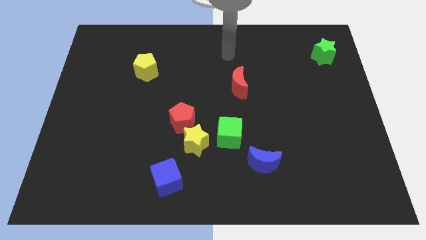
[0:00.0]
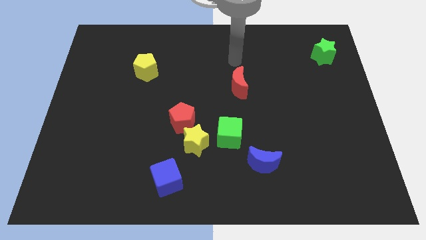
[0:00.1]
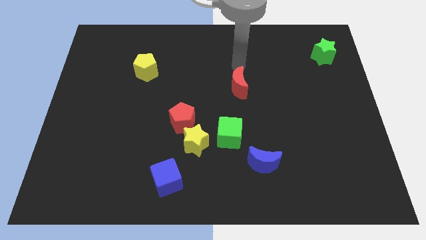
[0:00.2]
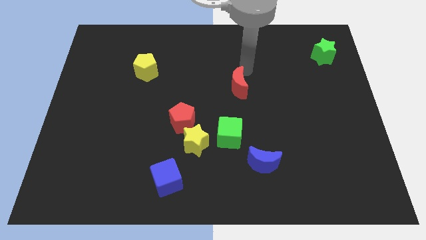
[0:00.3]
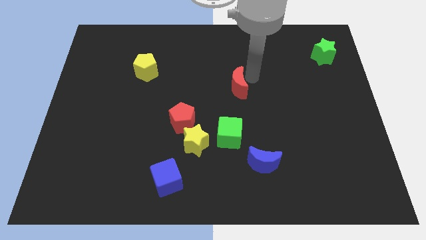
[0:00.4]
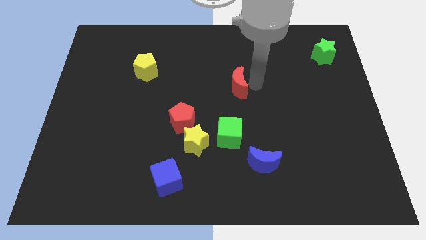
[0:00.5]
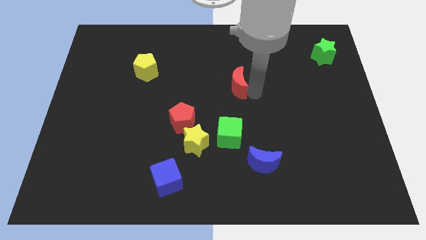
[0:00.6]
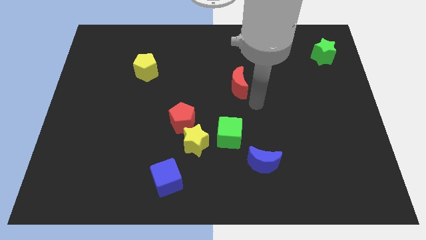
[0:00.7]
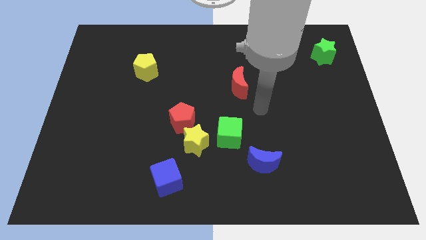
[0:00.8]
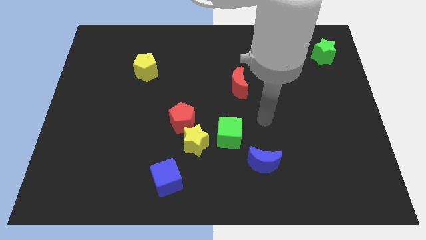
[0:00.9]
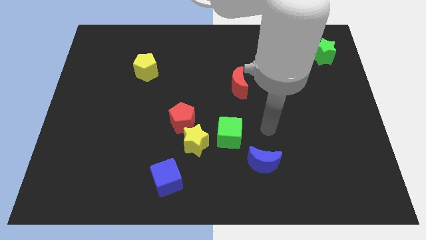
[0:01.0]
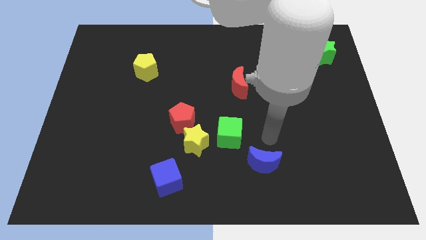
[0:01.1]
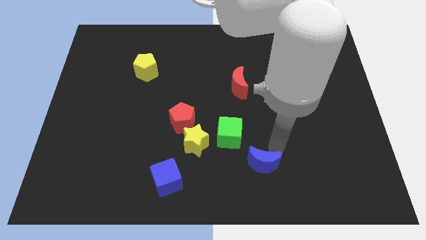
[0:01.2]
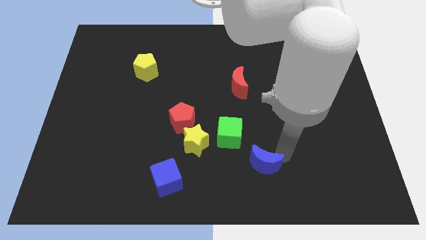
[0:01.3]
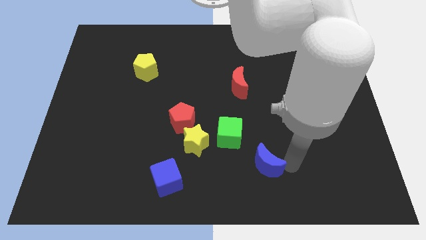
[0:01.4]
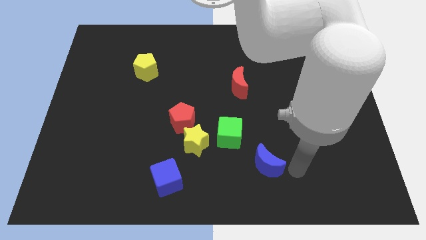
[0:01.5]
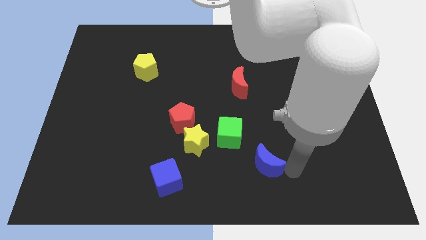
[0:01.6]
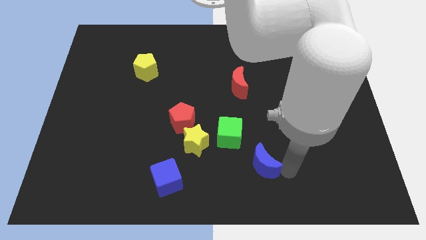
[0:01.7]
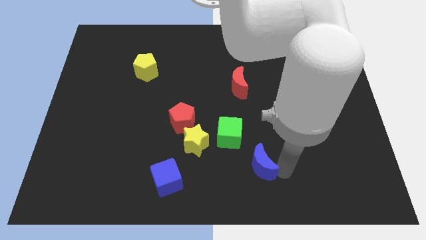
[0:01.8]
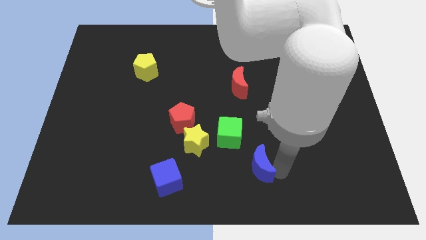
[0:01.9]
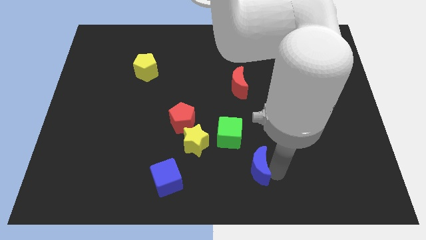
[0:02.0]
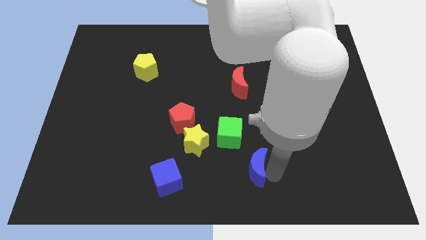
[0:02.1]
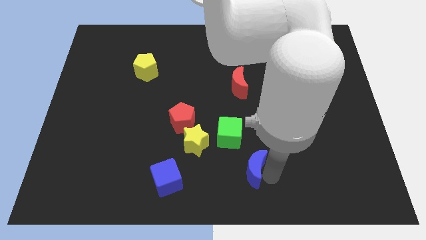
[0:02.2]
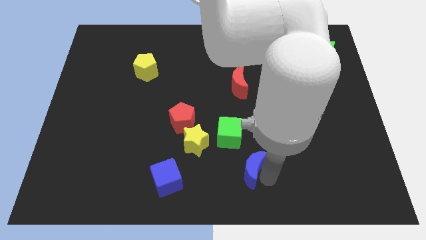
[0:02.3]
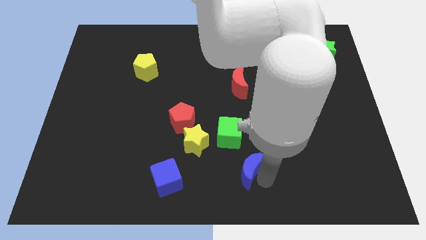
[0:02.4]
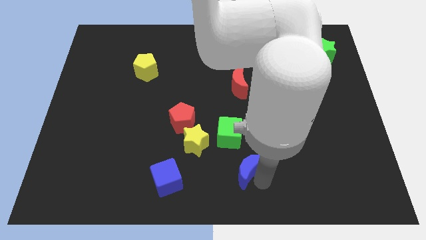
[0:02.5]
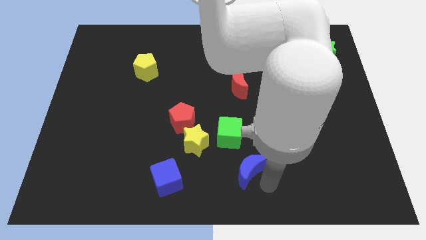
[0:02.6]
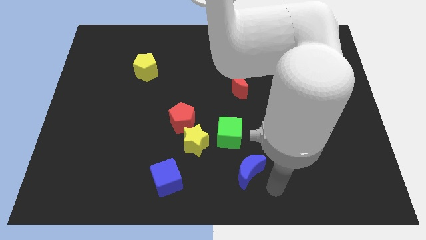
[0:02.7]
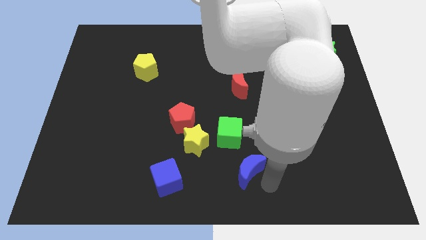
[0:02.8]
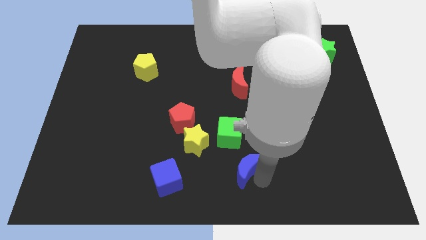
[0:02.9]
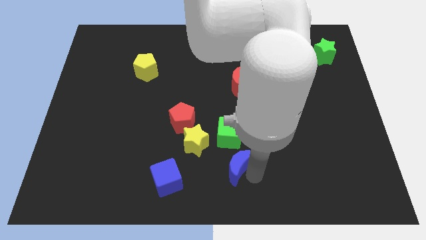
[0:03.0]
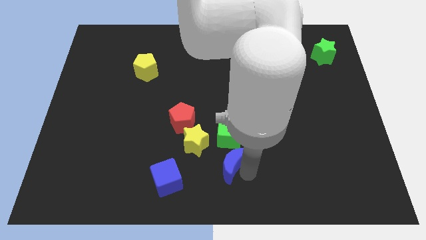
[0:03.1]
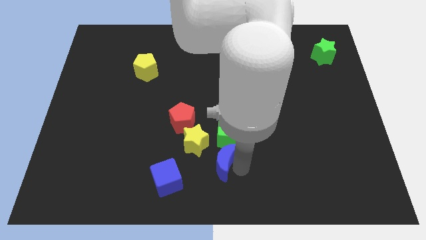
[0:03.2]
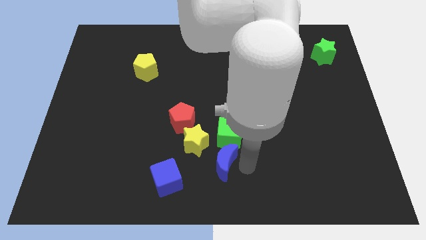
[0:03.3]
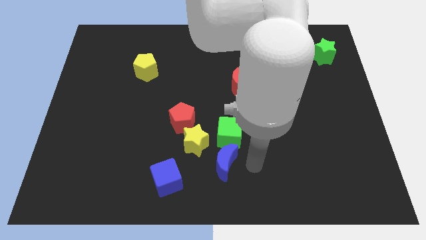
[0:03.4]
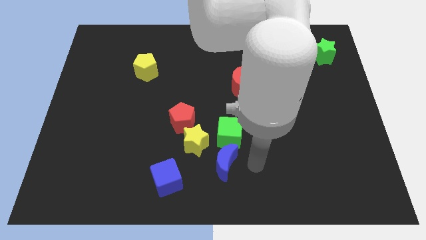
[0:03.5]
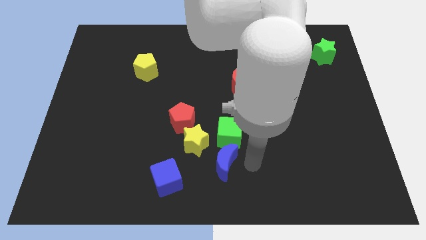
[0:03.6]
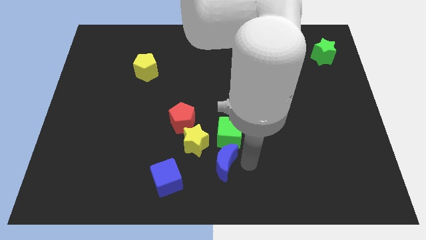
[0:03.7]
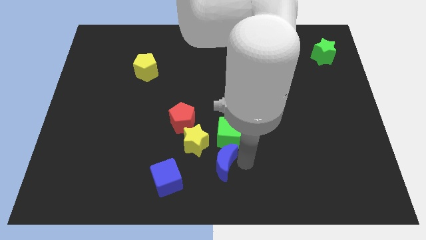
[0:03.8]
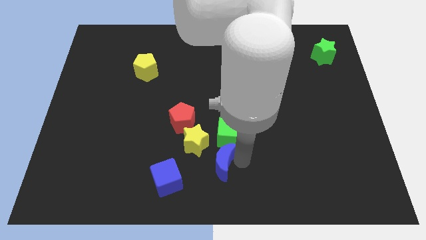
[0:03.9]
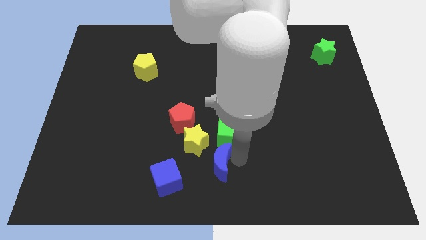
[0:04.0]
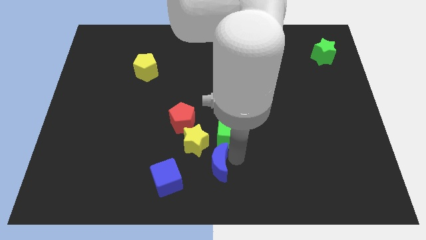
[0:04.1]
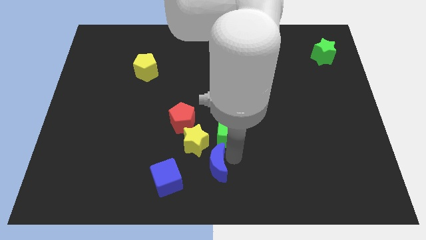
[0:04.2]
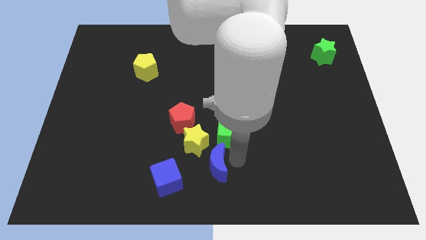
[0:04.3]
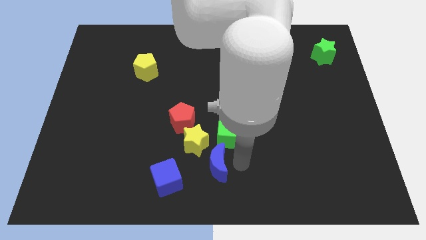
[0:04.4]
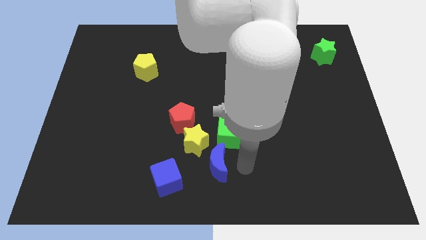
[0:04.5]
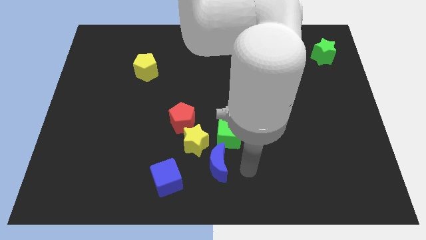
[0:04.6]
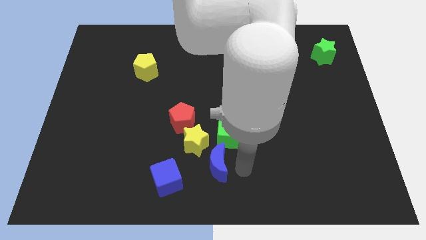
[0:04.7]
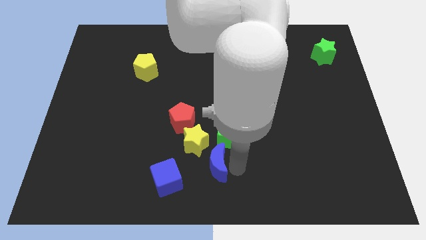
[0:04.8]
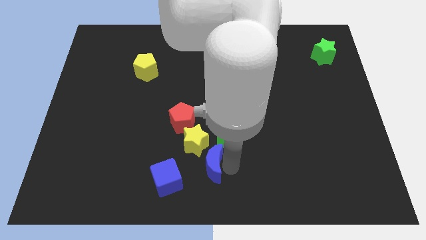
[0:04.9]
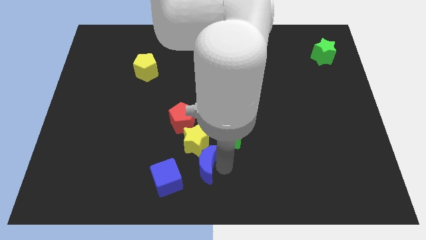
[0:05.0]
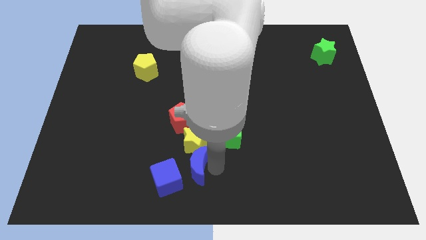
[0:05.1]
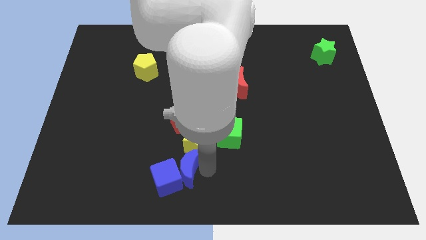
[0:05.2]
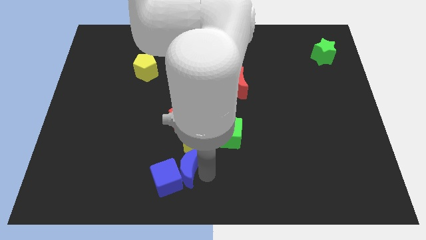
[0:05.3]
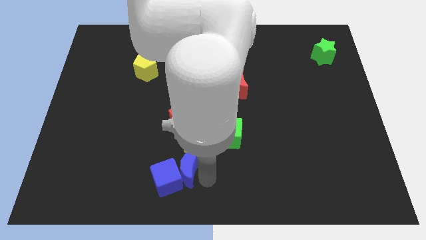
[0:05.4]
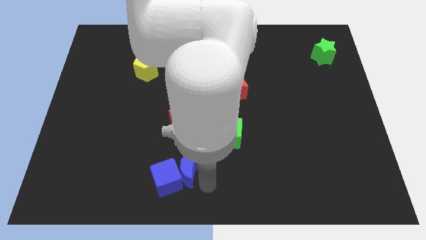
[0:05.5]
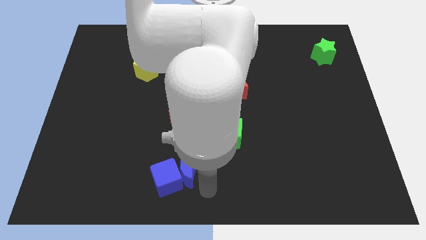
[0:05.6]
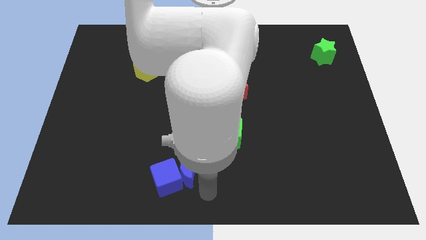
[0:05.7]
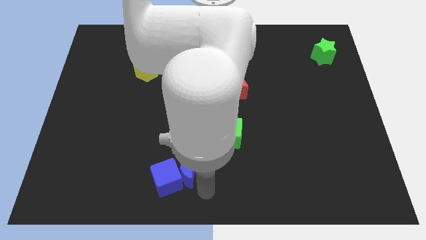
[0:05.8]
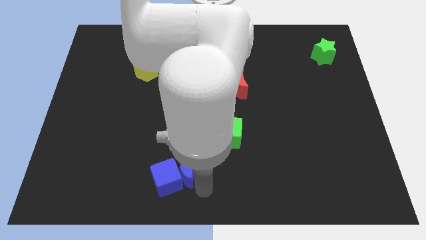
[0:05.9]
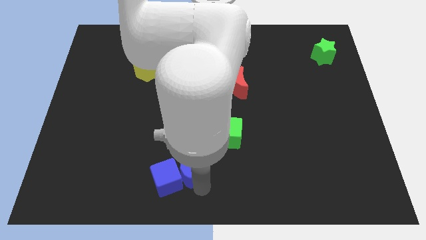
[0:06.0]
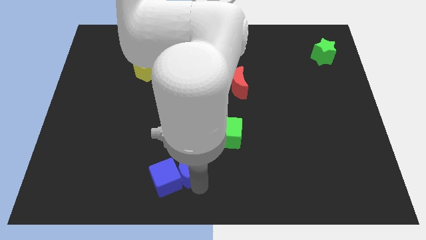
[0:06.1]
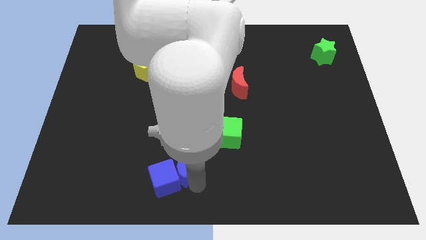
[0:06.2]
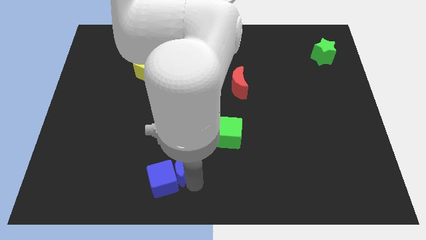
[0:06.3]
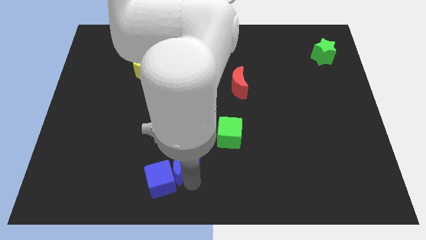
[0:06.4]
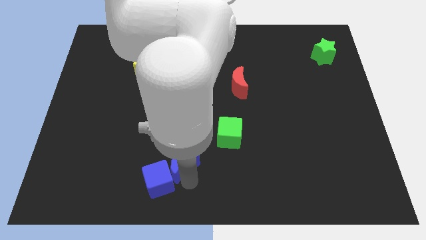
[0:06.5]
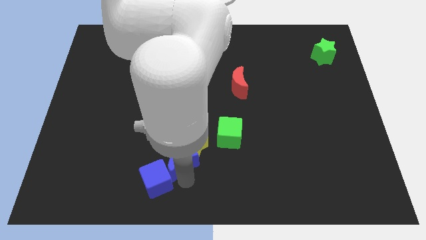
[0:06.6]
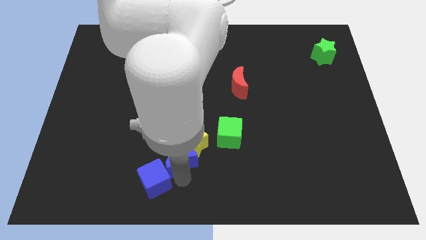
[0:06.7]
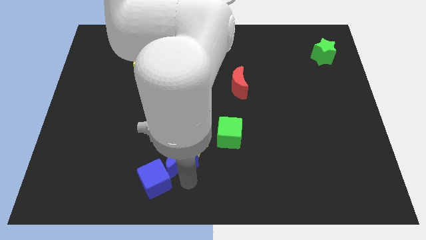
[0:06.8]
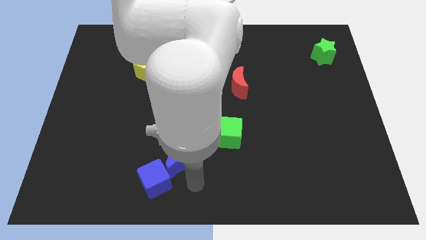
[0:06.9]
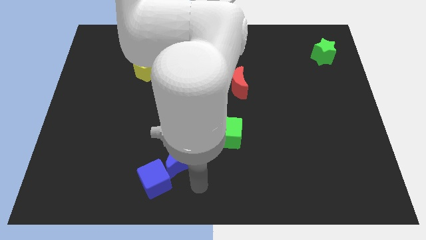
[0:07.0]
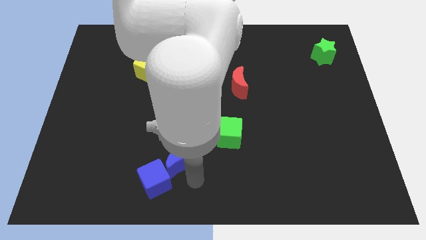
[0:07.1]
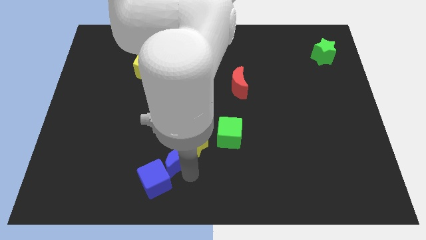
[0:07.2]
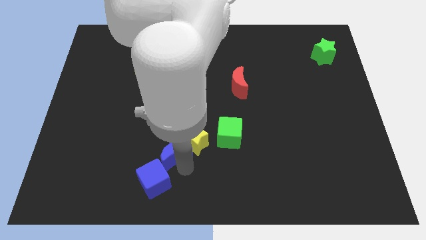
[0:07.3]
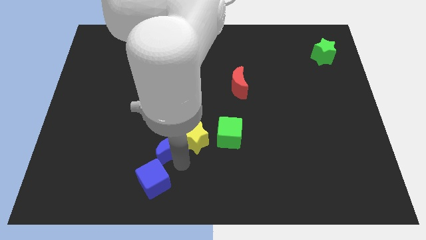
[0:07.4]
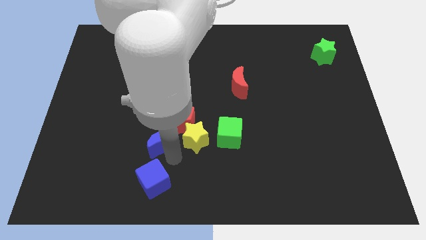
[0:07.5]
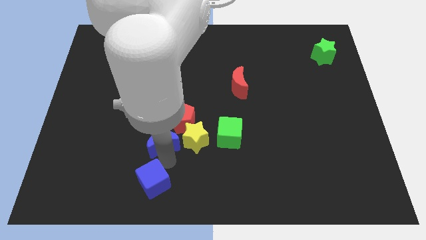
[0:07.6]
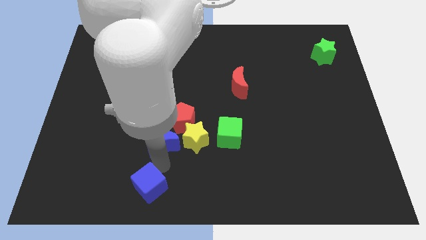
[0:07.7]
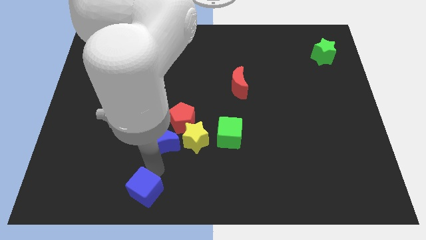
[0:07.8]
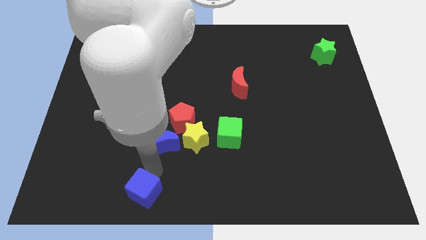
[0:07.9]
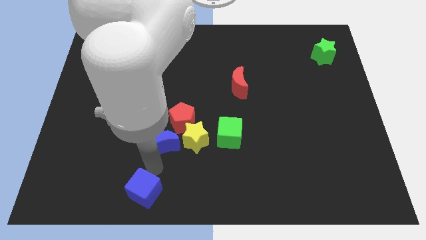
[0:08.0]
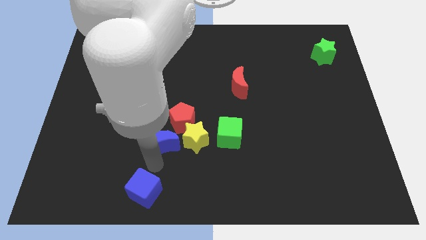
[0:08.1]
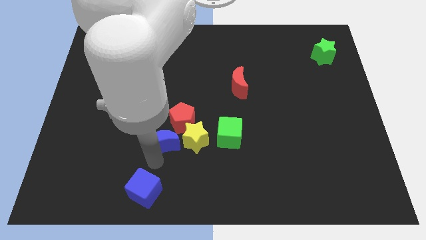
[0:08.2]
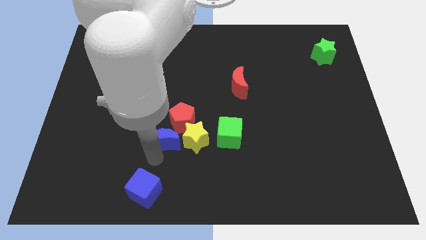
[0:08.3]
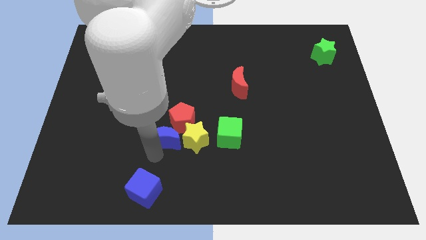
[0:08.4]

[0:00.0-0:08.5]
slide the blue moon diagonally up and to the left of the yellow star
